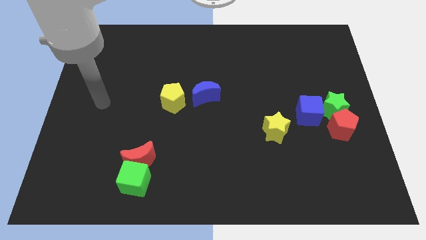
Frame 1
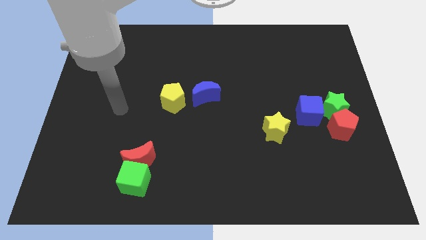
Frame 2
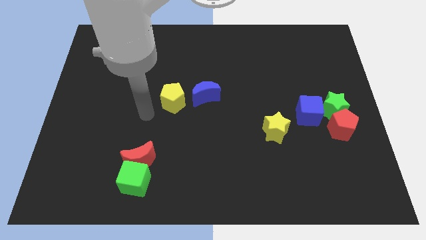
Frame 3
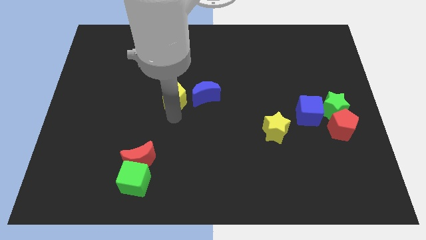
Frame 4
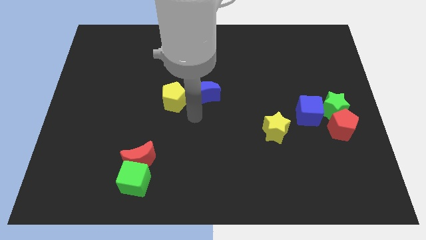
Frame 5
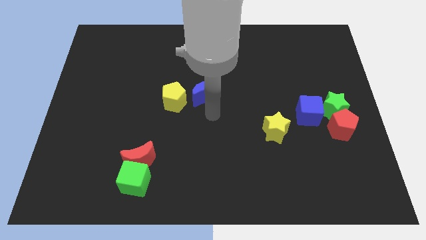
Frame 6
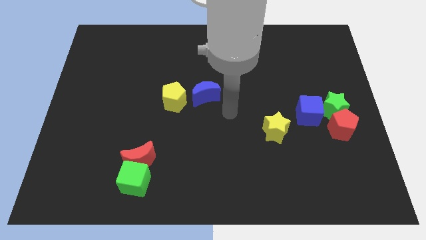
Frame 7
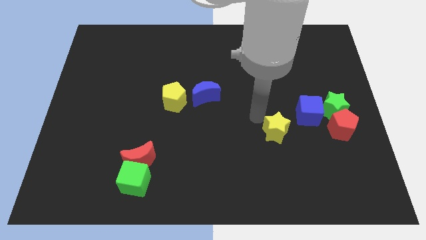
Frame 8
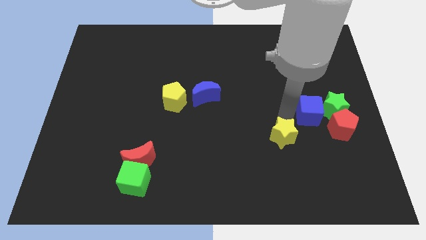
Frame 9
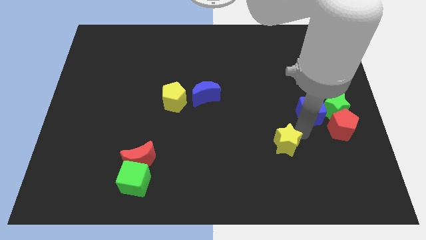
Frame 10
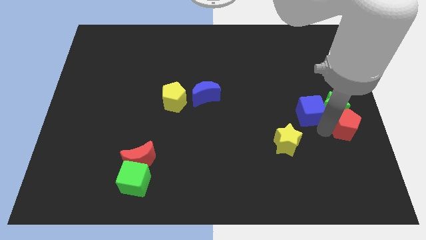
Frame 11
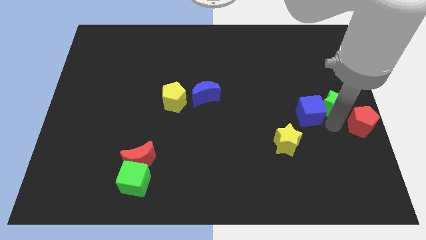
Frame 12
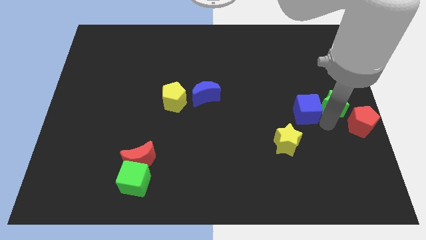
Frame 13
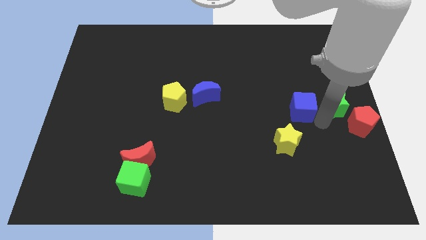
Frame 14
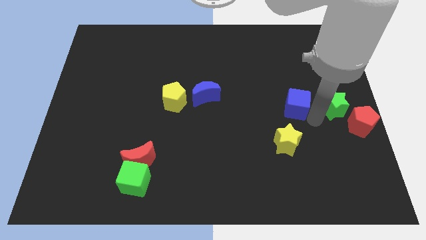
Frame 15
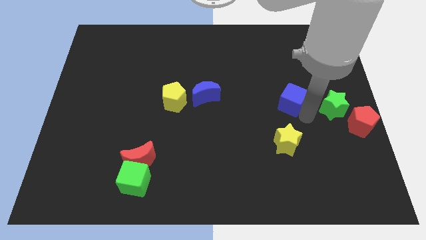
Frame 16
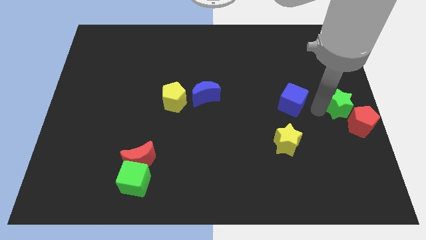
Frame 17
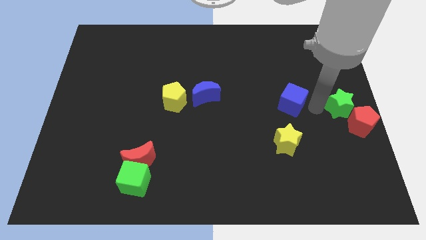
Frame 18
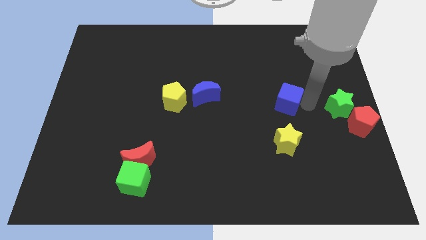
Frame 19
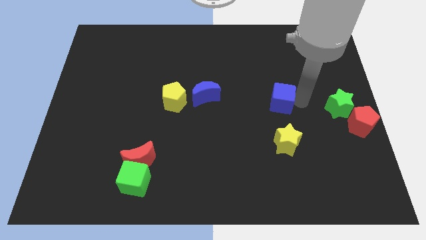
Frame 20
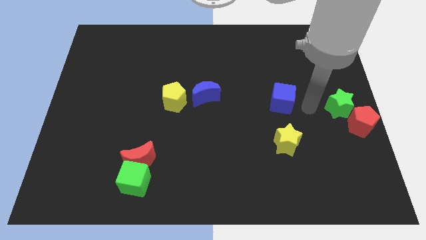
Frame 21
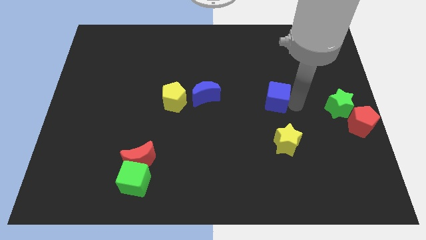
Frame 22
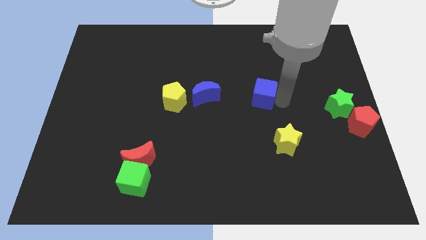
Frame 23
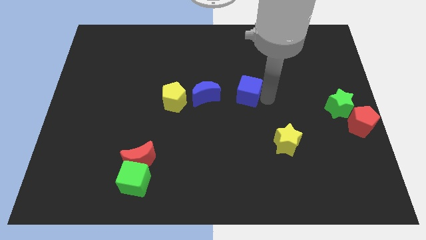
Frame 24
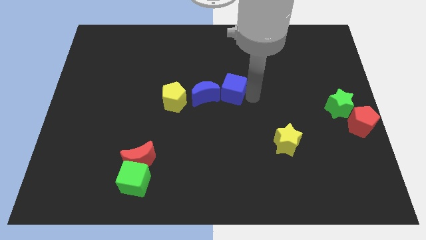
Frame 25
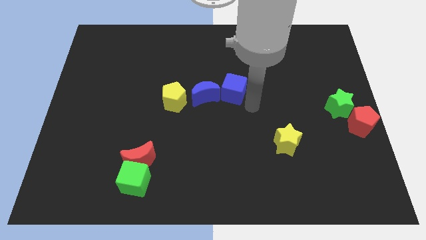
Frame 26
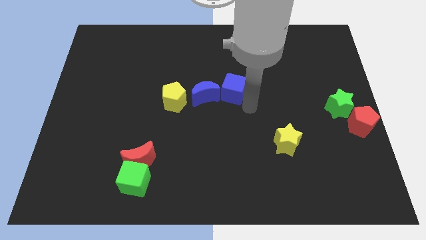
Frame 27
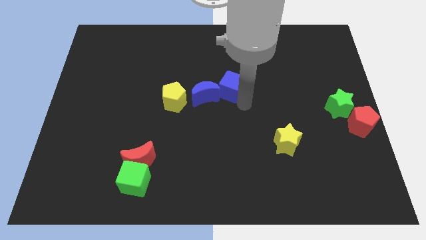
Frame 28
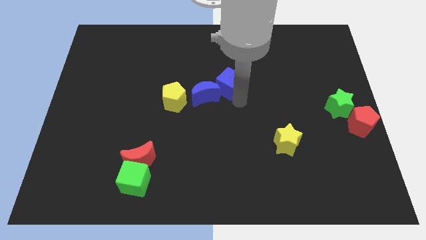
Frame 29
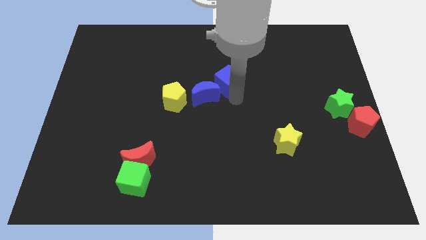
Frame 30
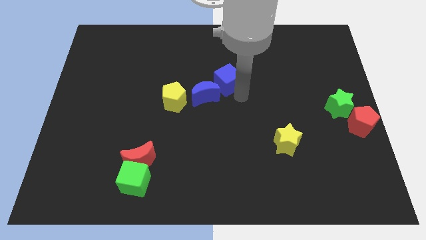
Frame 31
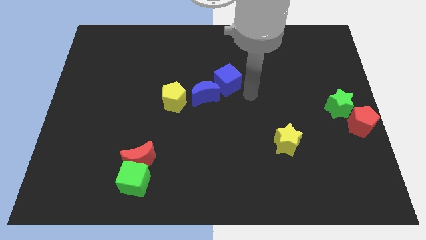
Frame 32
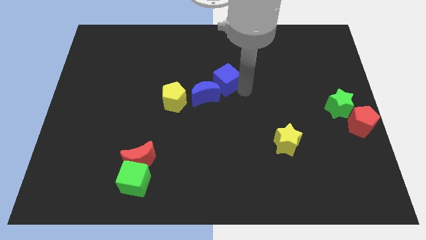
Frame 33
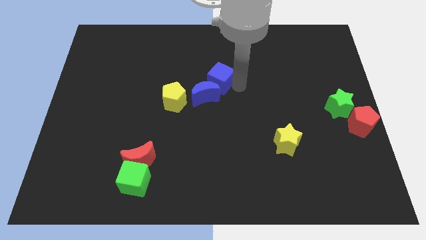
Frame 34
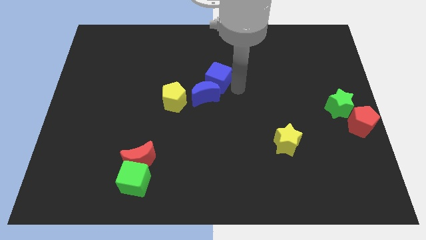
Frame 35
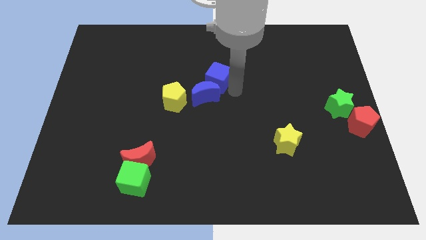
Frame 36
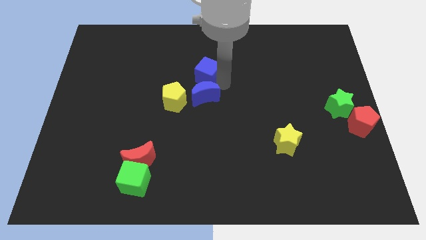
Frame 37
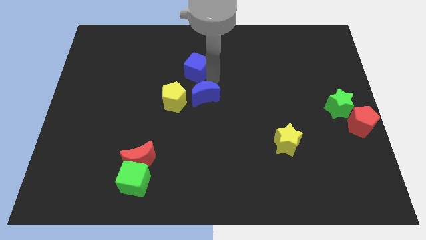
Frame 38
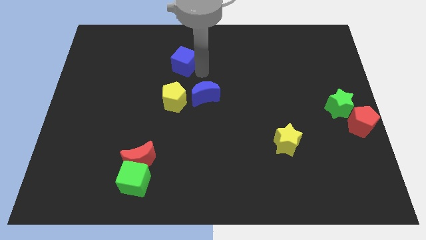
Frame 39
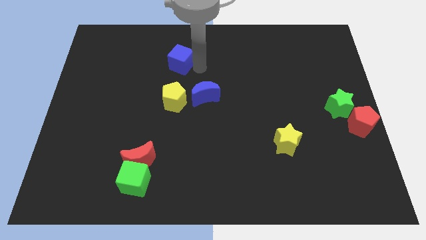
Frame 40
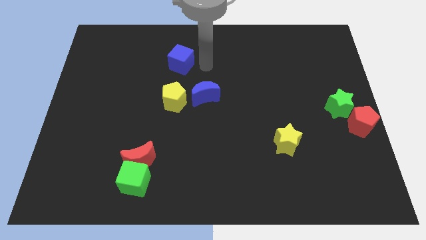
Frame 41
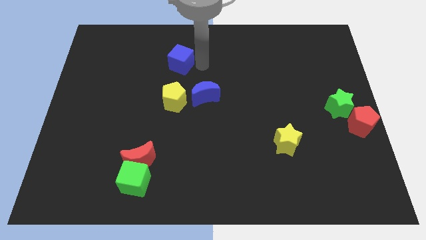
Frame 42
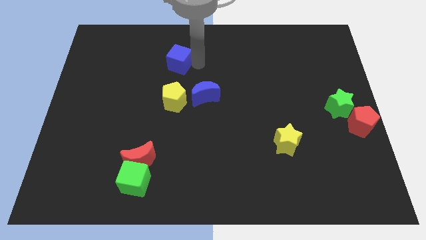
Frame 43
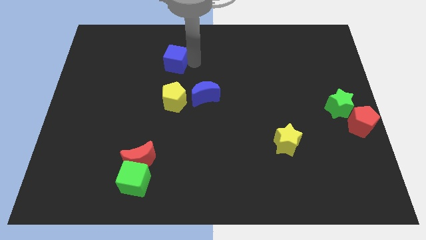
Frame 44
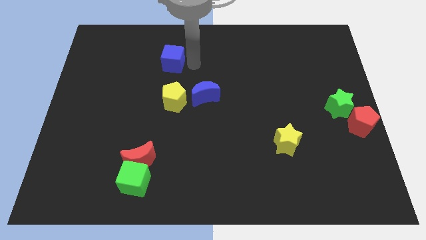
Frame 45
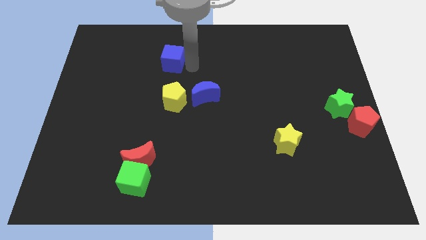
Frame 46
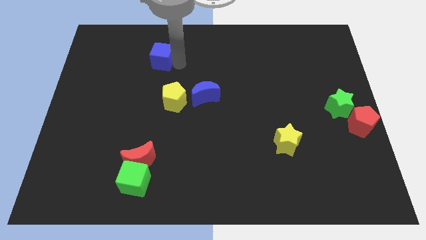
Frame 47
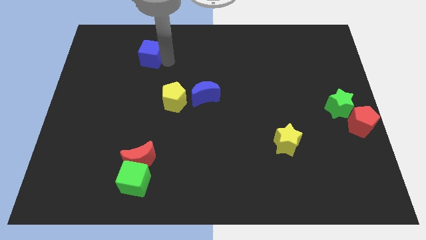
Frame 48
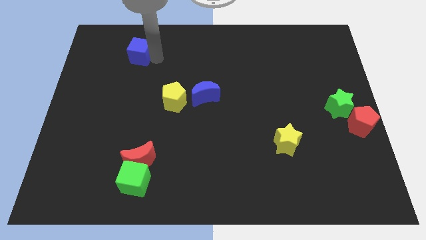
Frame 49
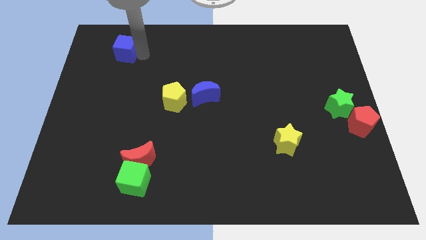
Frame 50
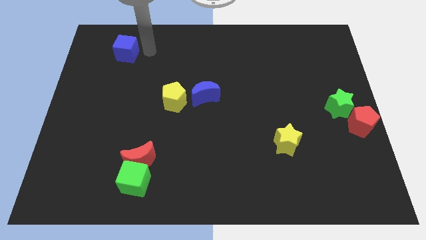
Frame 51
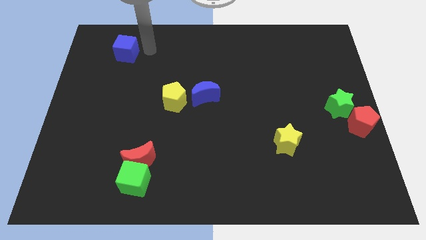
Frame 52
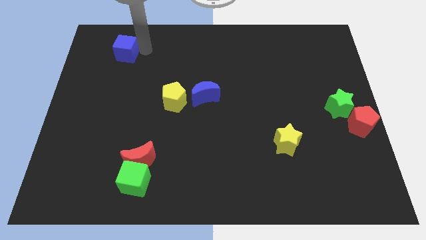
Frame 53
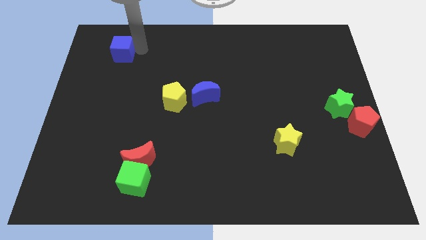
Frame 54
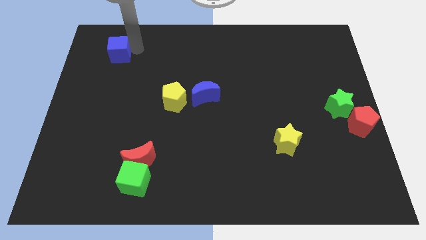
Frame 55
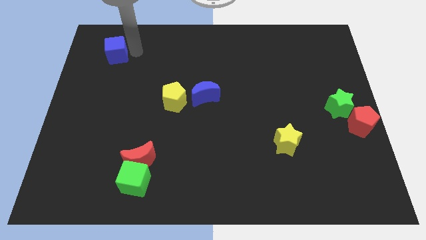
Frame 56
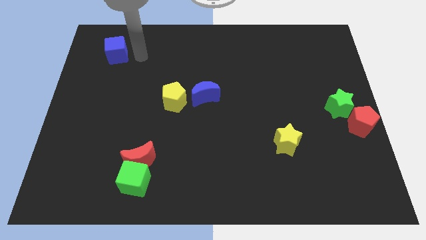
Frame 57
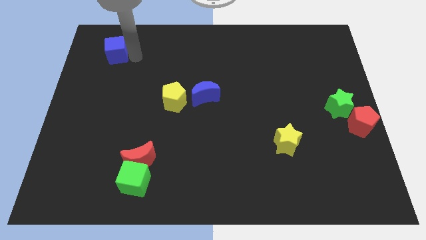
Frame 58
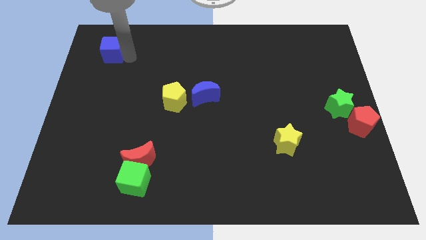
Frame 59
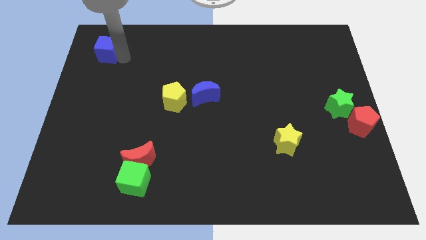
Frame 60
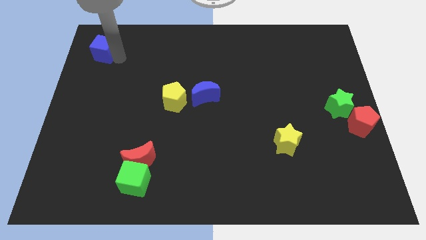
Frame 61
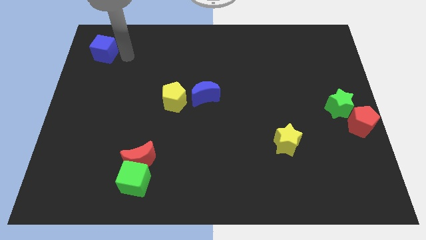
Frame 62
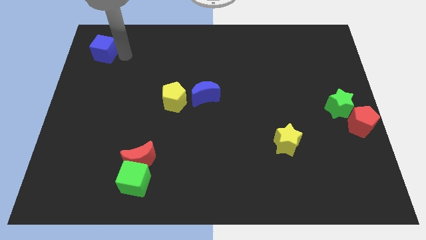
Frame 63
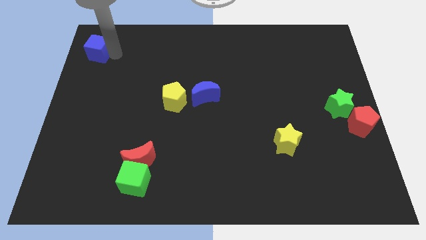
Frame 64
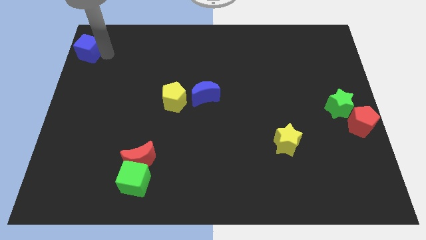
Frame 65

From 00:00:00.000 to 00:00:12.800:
put the blue cube to the top left of the board
